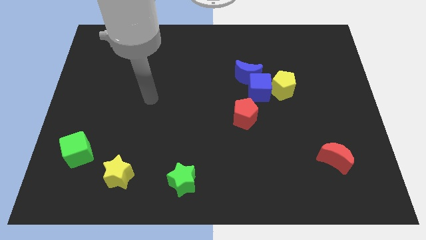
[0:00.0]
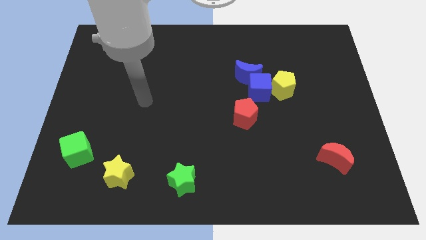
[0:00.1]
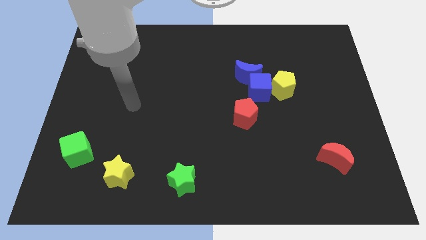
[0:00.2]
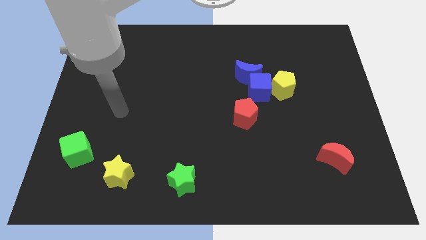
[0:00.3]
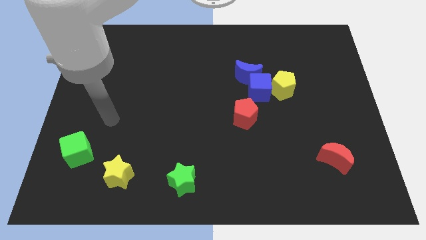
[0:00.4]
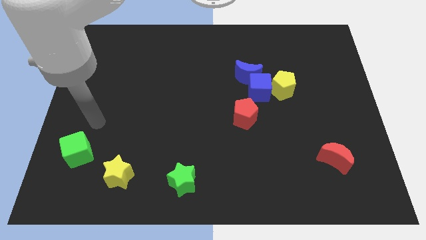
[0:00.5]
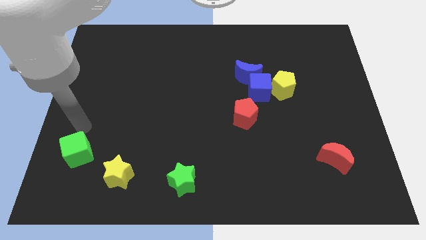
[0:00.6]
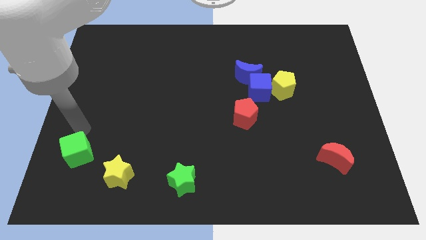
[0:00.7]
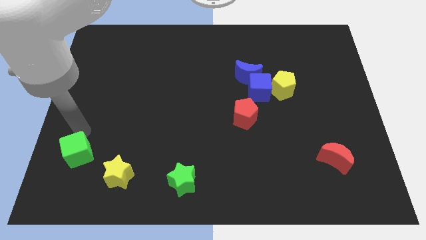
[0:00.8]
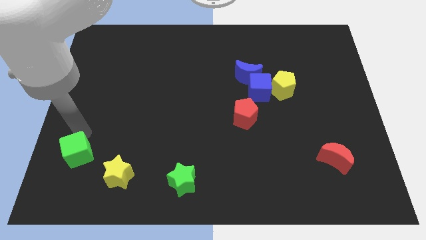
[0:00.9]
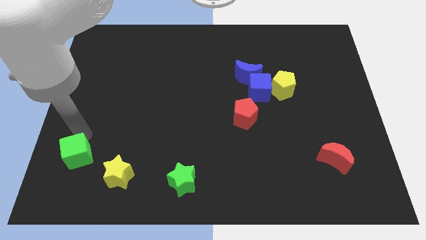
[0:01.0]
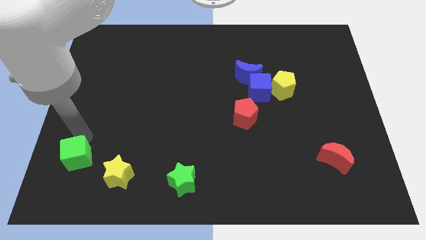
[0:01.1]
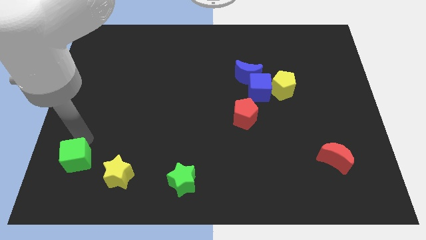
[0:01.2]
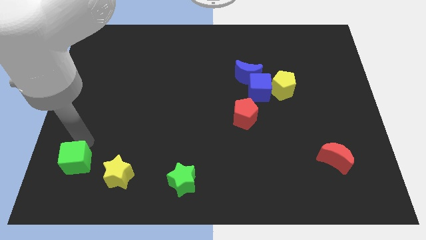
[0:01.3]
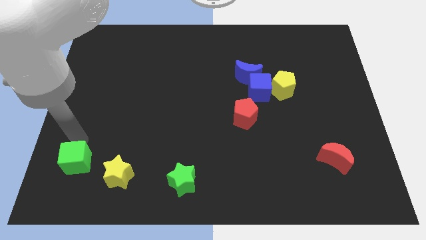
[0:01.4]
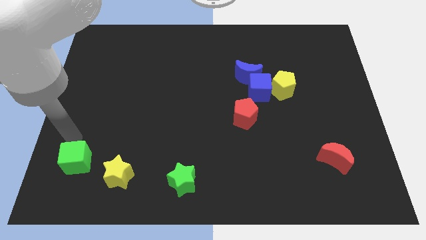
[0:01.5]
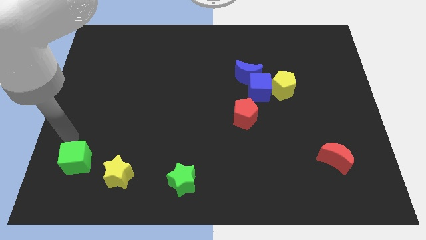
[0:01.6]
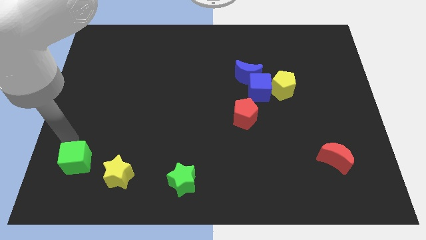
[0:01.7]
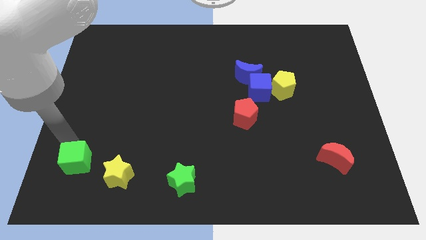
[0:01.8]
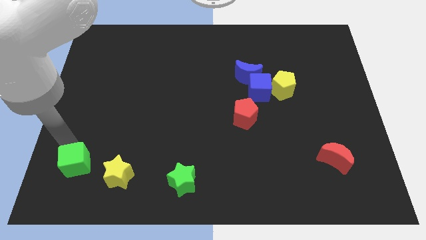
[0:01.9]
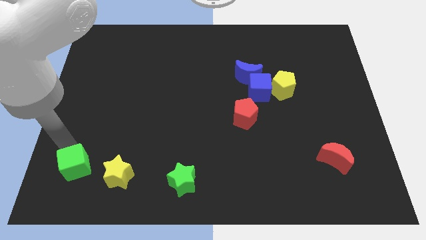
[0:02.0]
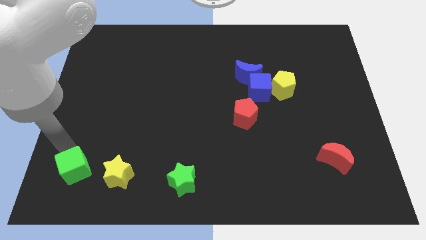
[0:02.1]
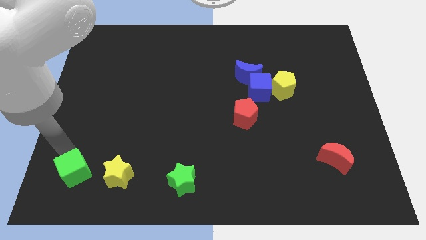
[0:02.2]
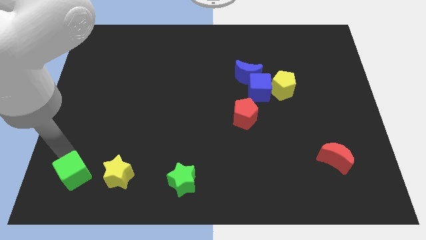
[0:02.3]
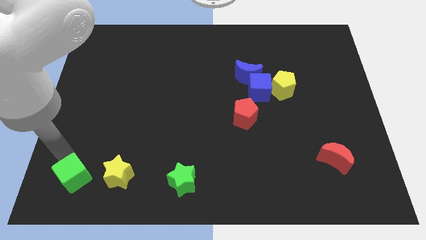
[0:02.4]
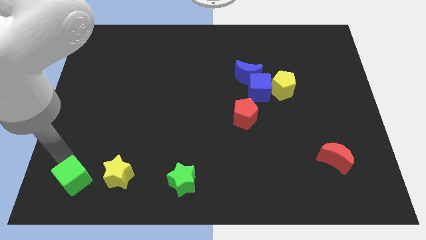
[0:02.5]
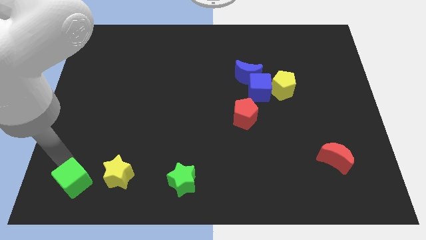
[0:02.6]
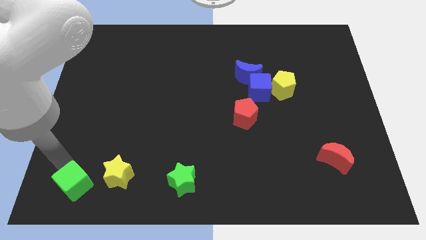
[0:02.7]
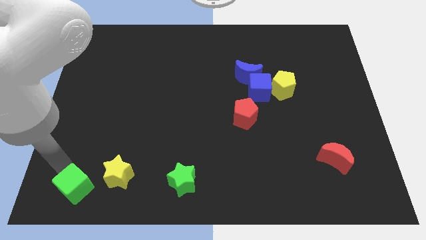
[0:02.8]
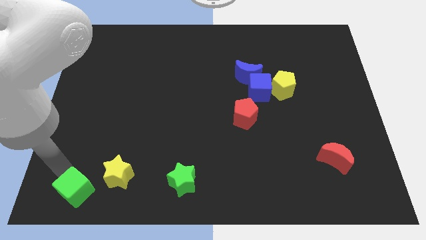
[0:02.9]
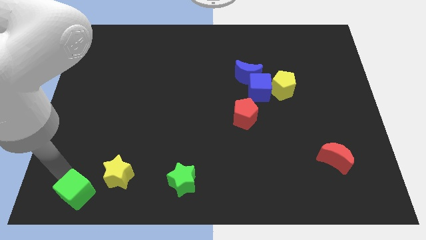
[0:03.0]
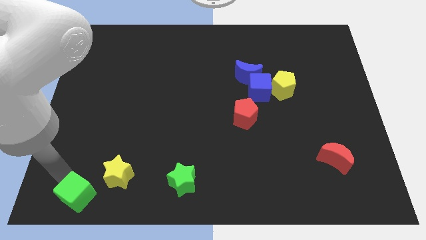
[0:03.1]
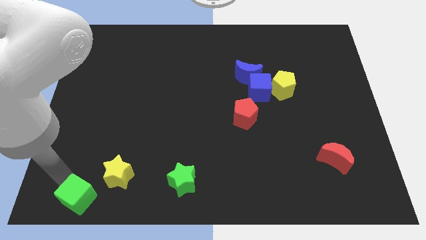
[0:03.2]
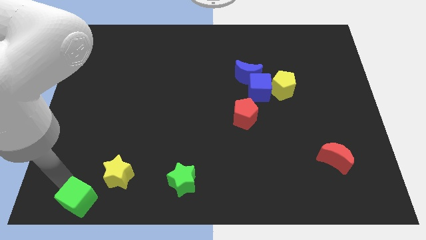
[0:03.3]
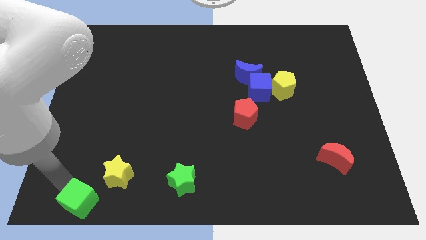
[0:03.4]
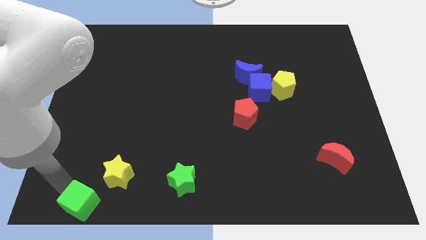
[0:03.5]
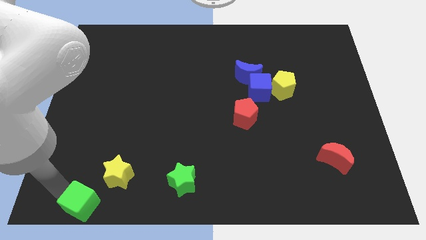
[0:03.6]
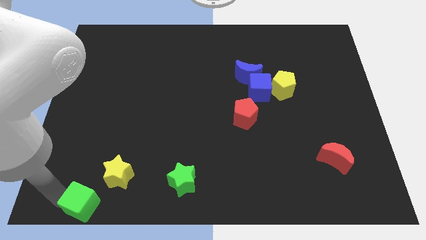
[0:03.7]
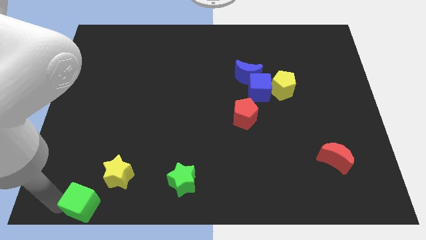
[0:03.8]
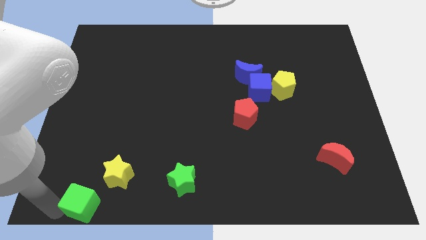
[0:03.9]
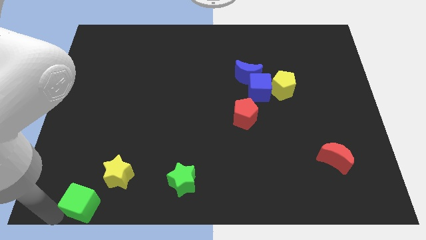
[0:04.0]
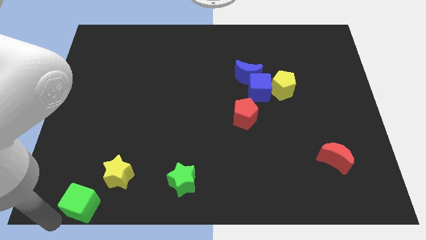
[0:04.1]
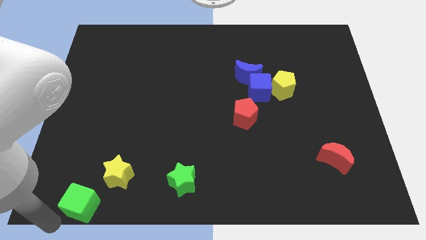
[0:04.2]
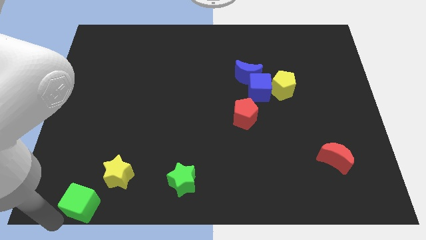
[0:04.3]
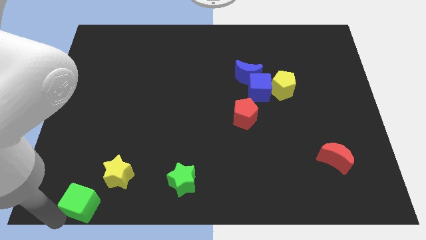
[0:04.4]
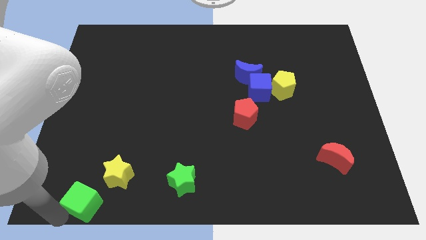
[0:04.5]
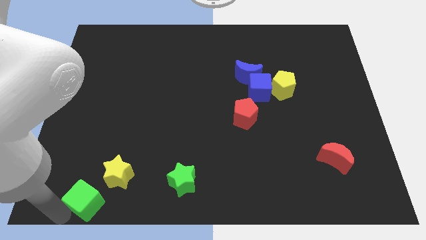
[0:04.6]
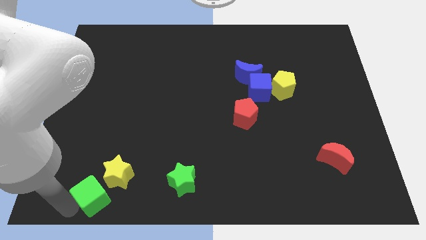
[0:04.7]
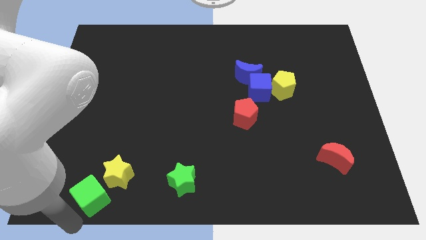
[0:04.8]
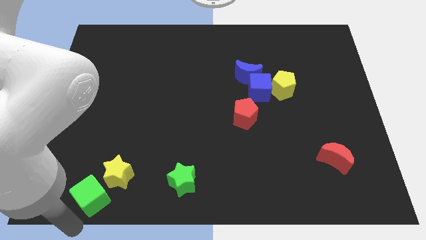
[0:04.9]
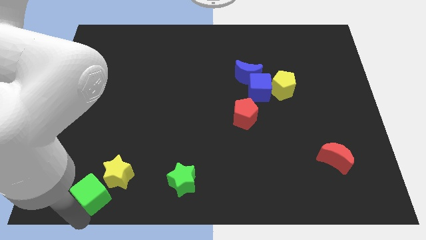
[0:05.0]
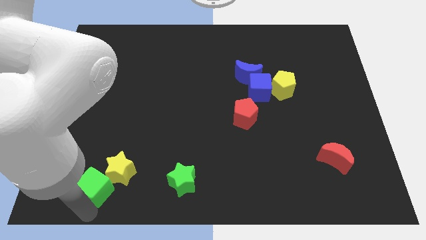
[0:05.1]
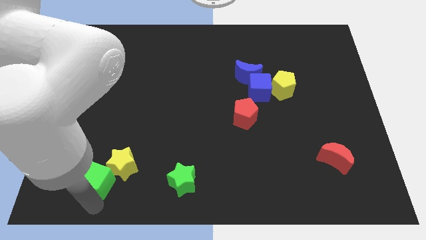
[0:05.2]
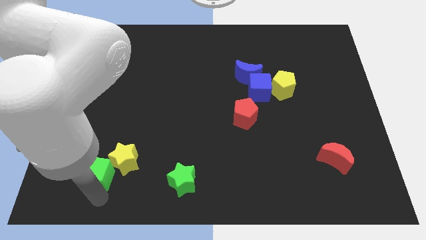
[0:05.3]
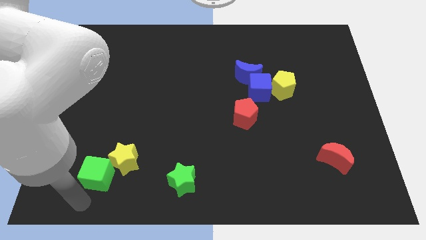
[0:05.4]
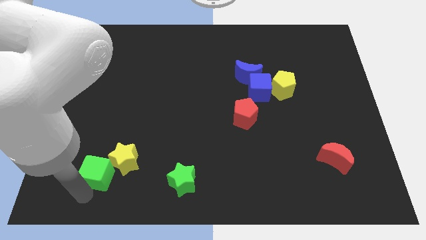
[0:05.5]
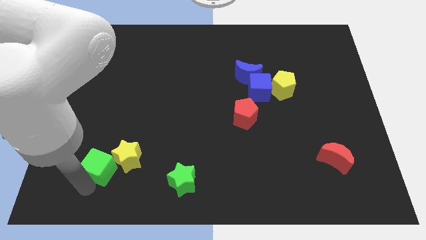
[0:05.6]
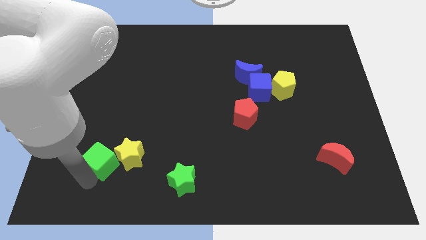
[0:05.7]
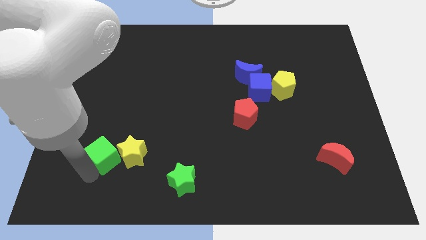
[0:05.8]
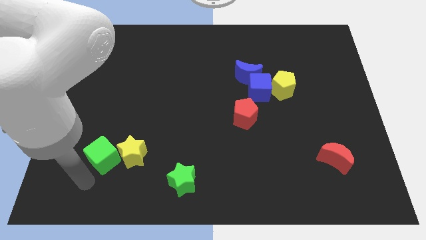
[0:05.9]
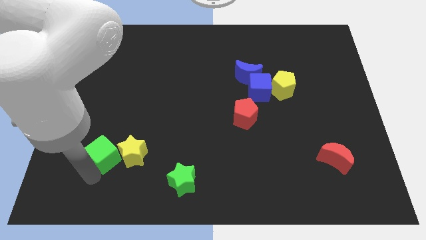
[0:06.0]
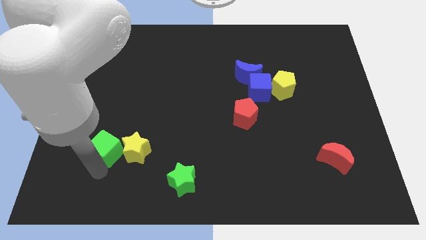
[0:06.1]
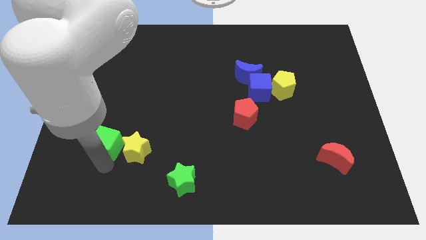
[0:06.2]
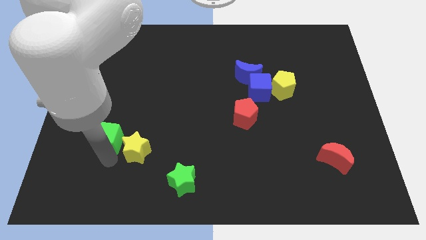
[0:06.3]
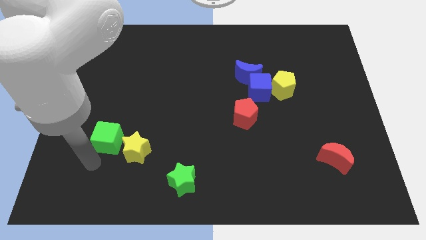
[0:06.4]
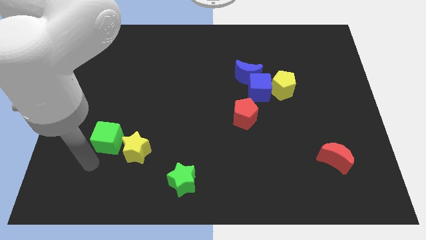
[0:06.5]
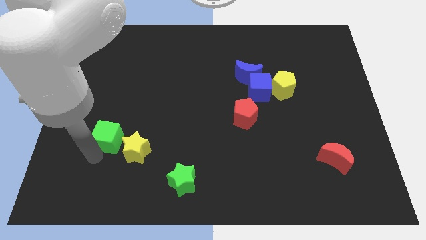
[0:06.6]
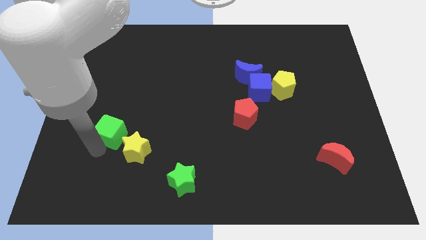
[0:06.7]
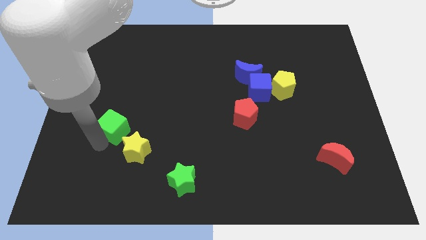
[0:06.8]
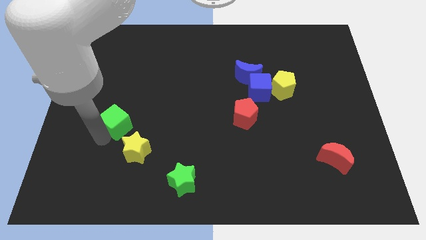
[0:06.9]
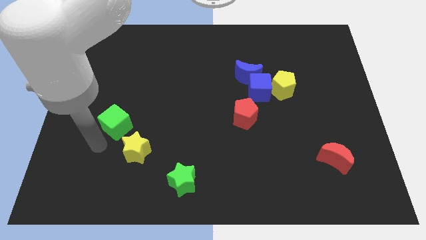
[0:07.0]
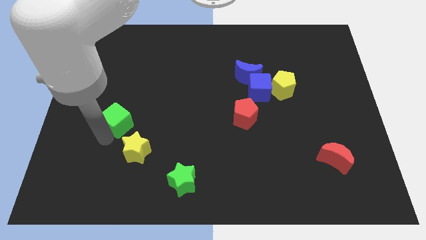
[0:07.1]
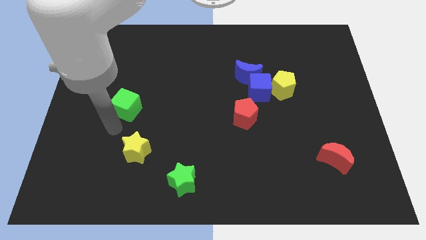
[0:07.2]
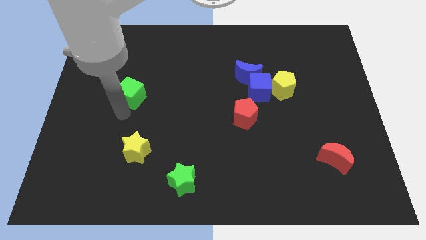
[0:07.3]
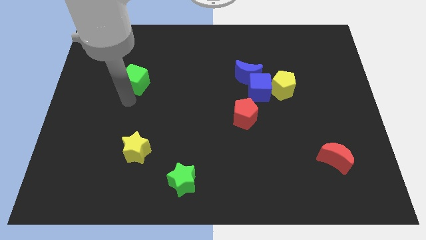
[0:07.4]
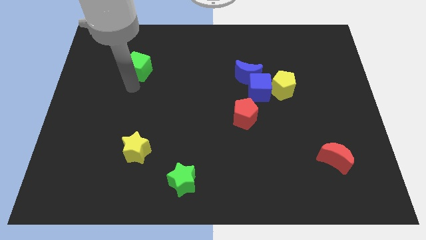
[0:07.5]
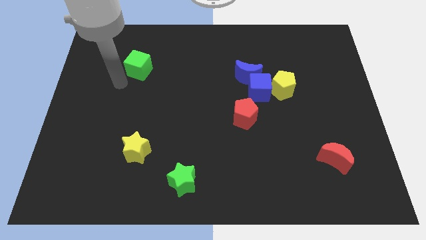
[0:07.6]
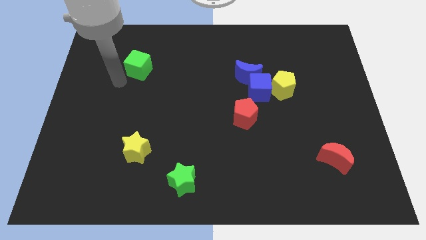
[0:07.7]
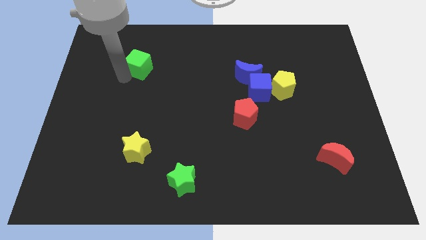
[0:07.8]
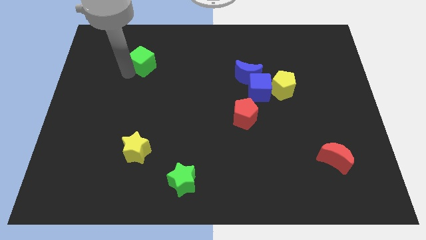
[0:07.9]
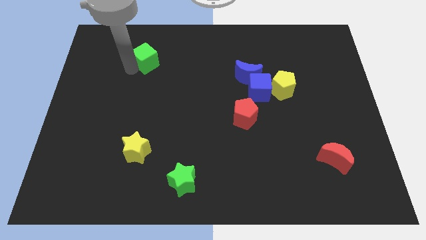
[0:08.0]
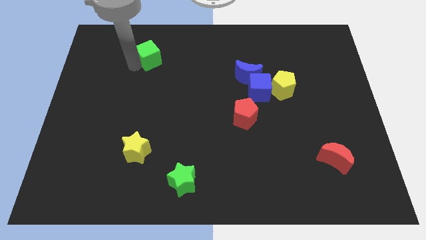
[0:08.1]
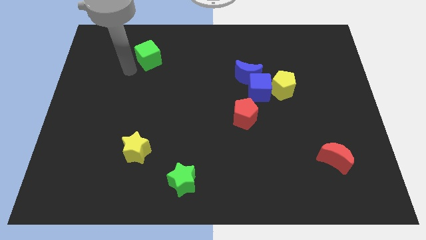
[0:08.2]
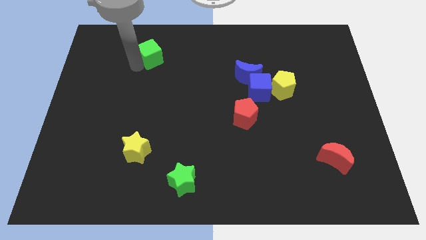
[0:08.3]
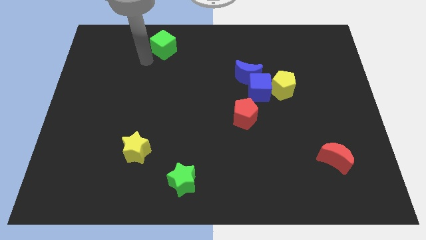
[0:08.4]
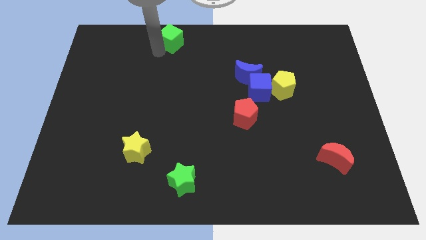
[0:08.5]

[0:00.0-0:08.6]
slide the green cube to the towards your base
